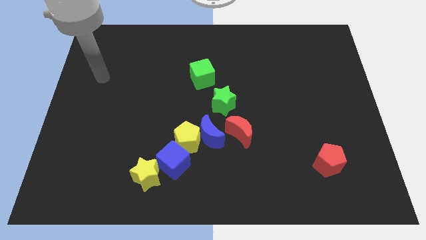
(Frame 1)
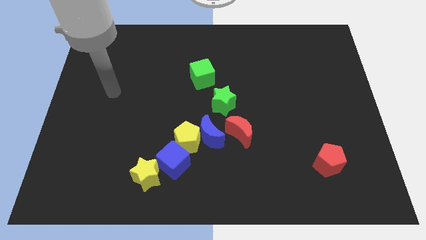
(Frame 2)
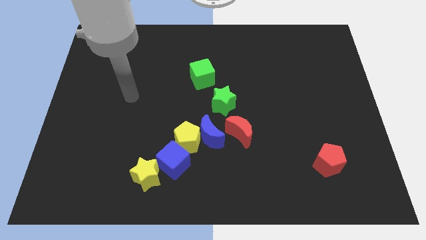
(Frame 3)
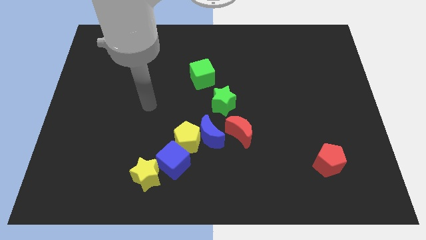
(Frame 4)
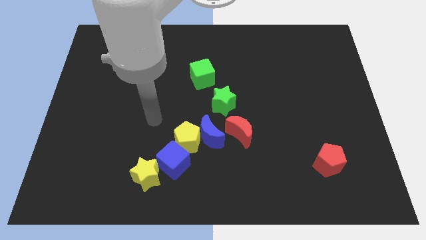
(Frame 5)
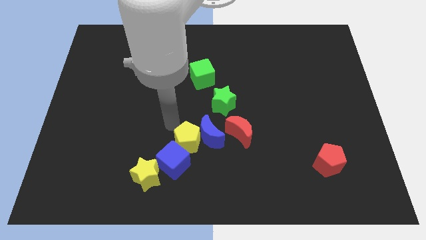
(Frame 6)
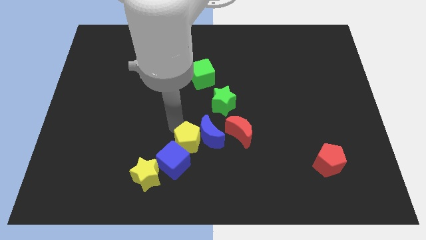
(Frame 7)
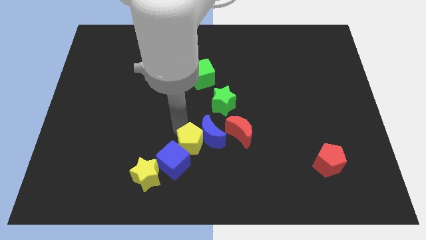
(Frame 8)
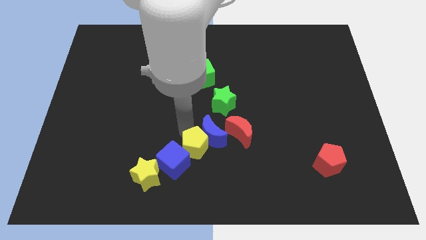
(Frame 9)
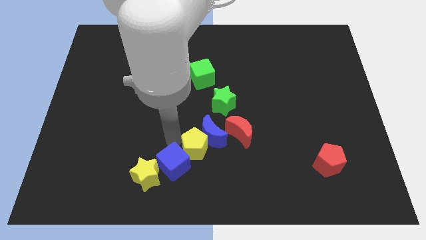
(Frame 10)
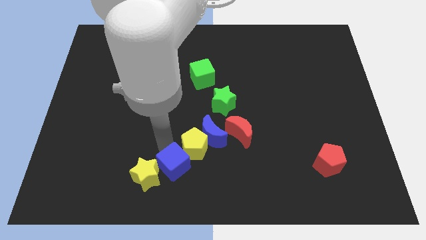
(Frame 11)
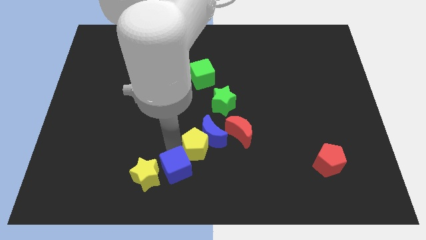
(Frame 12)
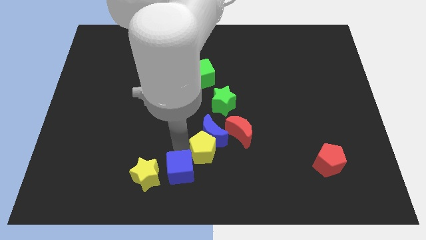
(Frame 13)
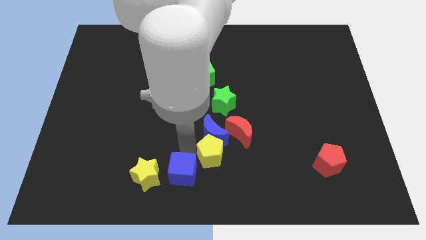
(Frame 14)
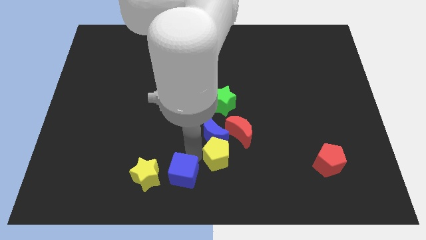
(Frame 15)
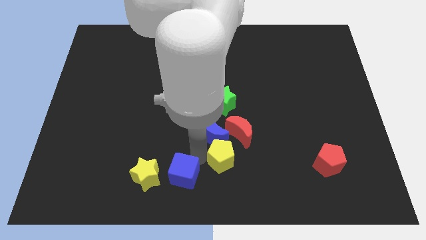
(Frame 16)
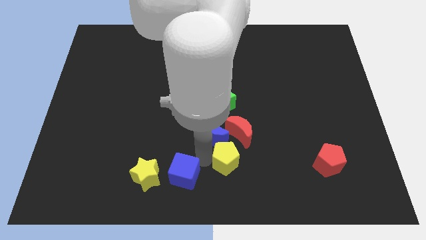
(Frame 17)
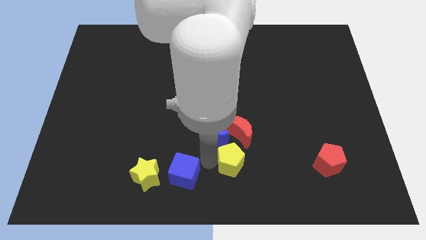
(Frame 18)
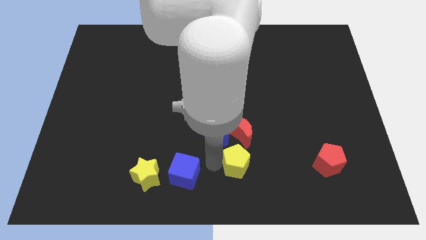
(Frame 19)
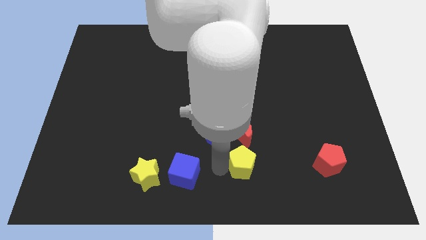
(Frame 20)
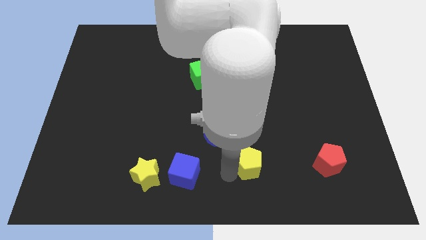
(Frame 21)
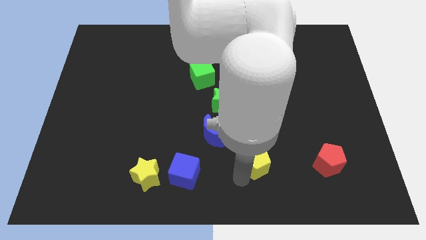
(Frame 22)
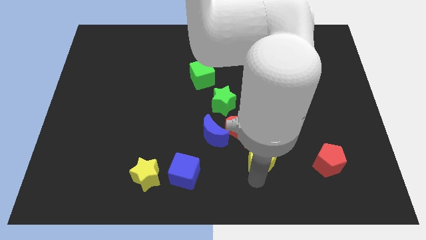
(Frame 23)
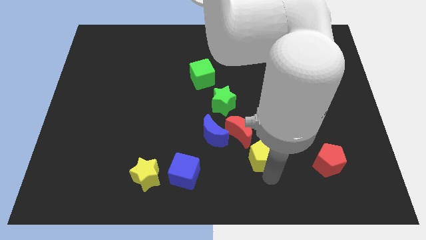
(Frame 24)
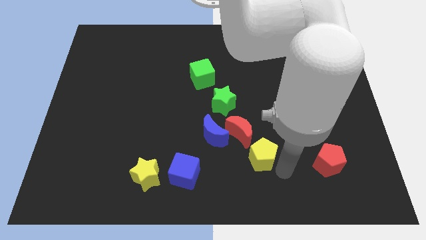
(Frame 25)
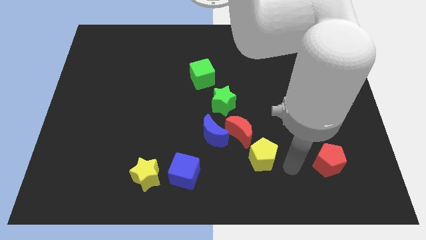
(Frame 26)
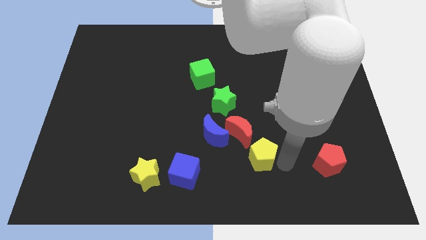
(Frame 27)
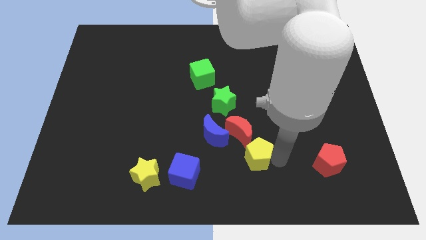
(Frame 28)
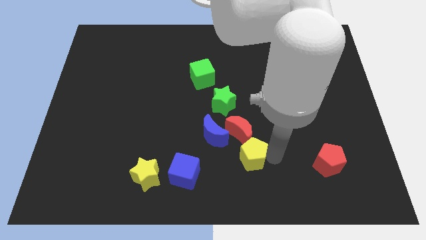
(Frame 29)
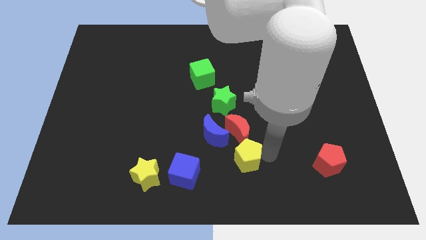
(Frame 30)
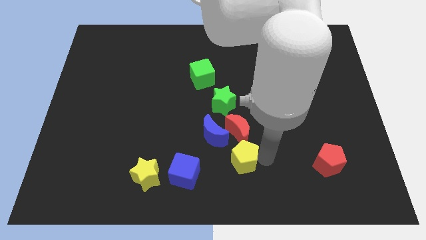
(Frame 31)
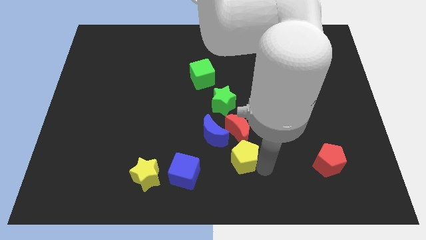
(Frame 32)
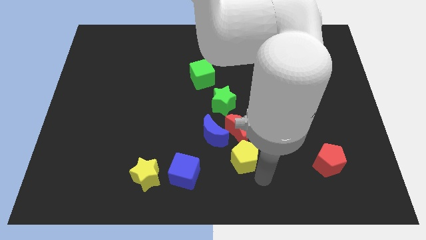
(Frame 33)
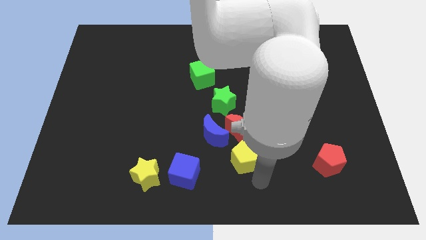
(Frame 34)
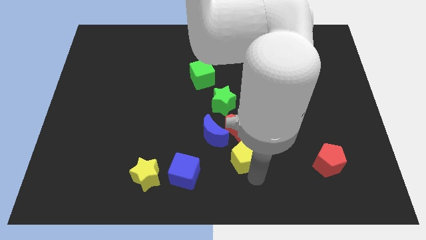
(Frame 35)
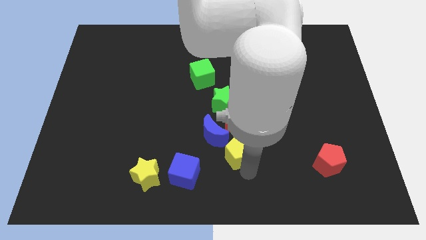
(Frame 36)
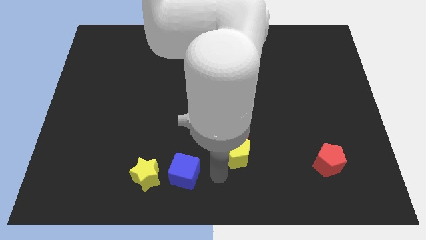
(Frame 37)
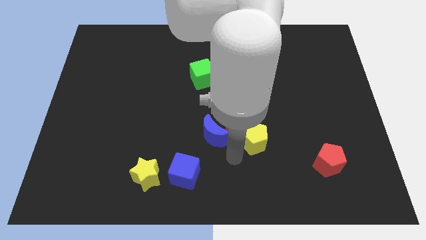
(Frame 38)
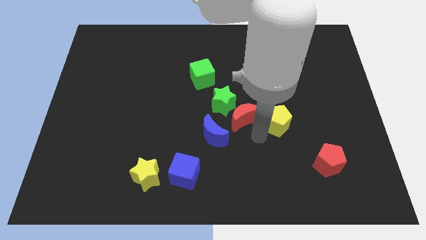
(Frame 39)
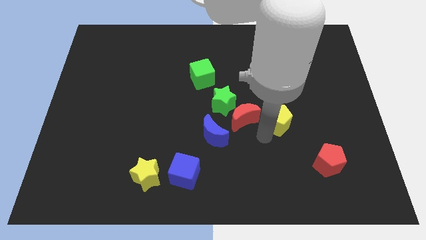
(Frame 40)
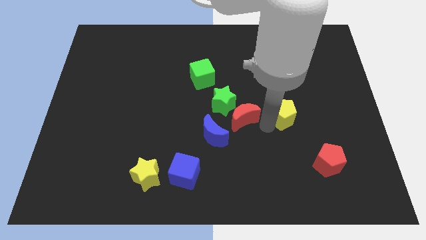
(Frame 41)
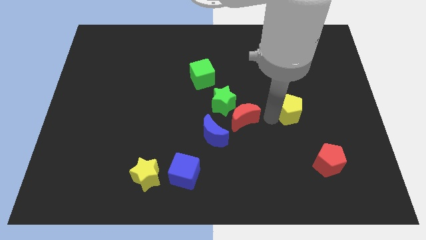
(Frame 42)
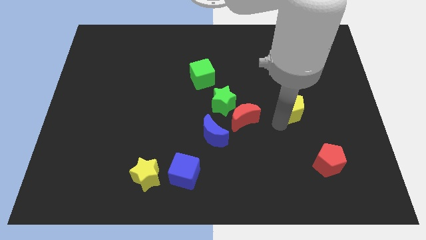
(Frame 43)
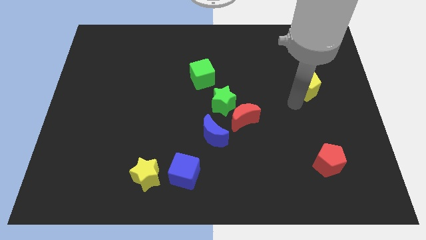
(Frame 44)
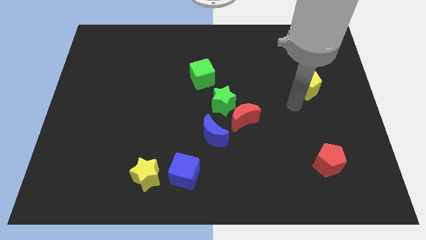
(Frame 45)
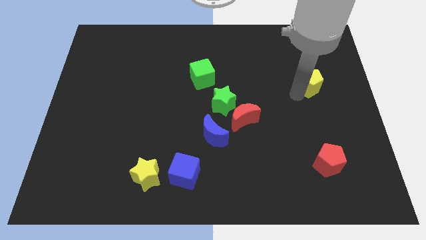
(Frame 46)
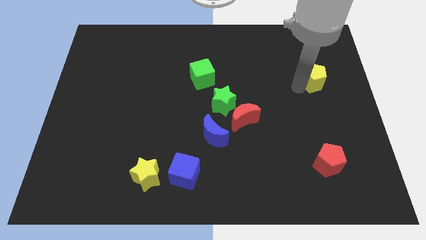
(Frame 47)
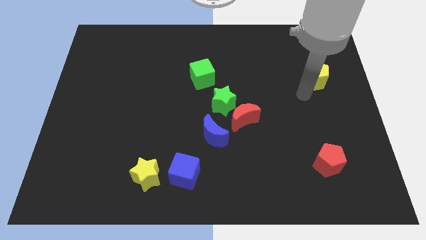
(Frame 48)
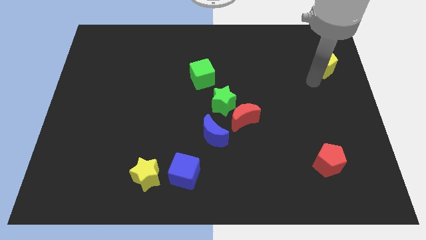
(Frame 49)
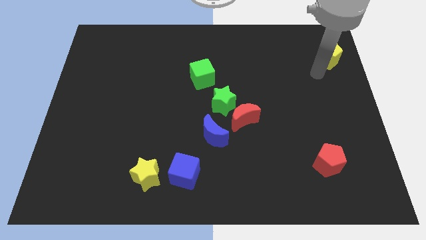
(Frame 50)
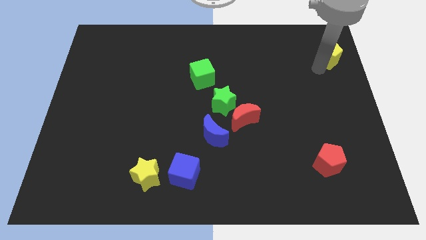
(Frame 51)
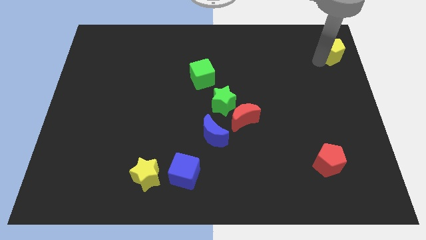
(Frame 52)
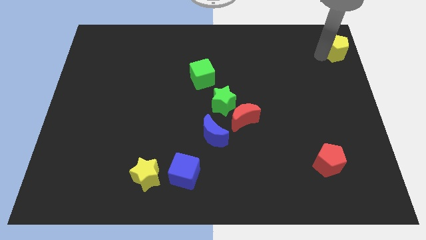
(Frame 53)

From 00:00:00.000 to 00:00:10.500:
slide the yellow pentagon to the top right of the board

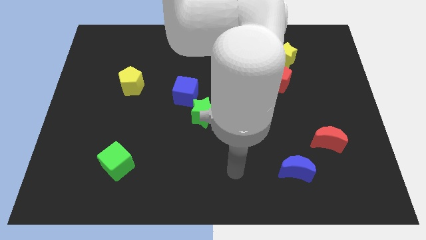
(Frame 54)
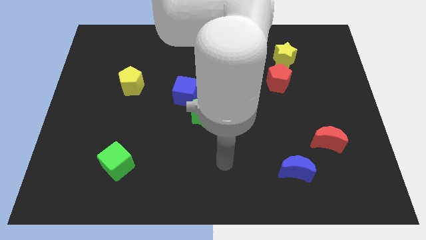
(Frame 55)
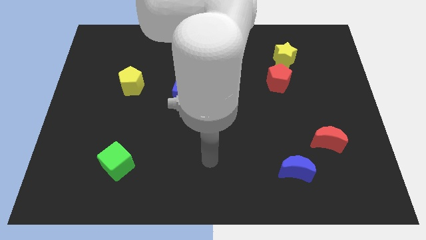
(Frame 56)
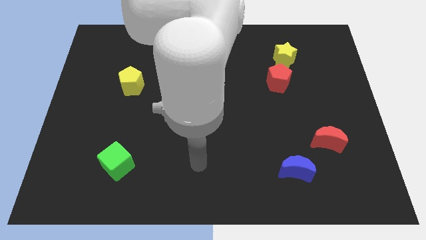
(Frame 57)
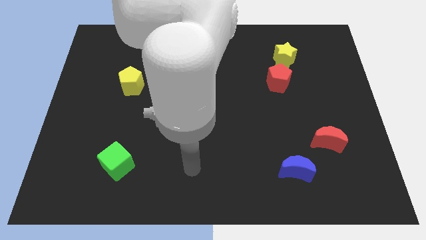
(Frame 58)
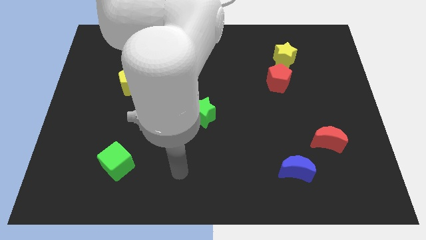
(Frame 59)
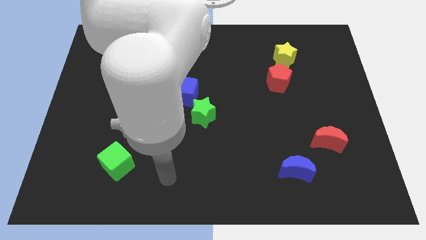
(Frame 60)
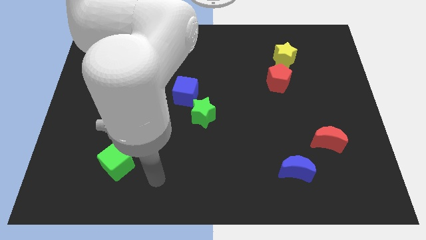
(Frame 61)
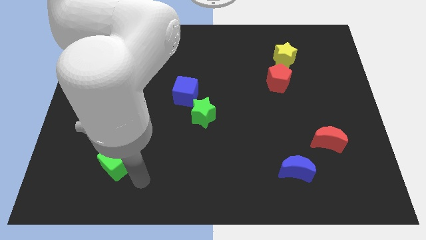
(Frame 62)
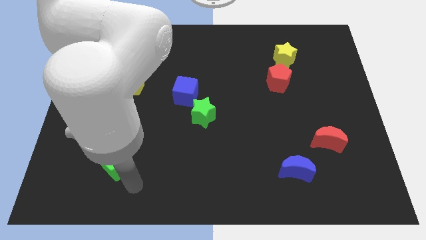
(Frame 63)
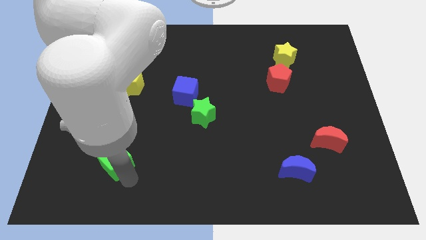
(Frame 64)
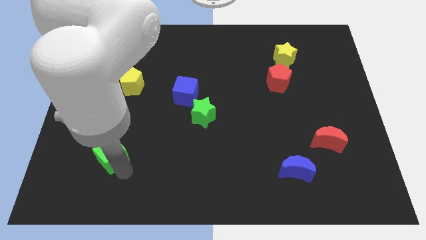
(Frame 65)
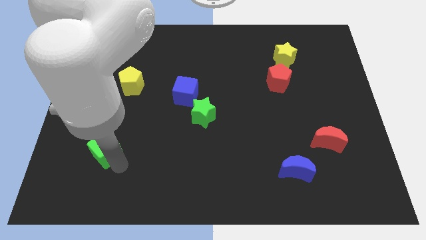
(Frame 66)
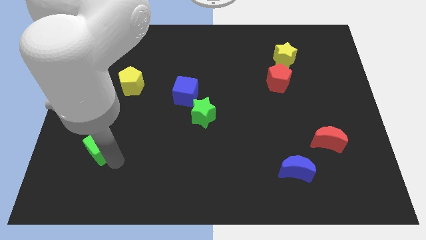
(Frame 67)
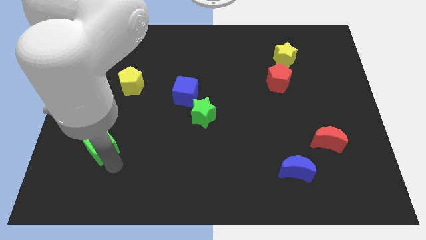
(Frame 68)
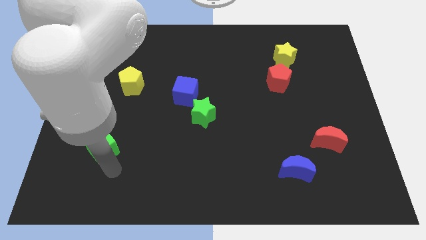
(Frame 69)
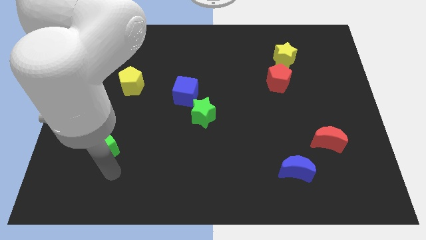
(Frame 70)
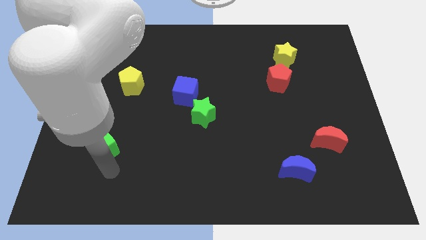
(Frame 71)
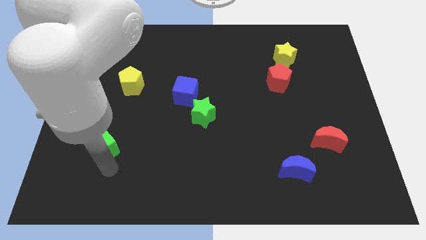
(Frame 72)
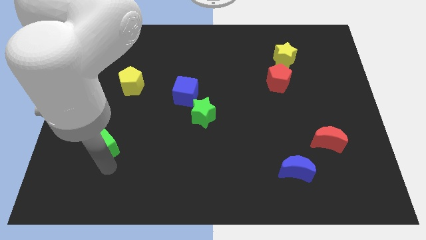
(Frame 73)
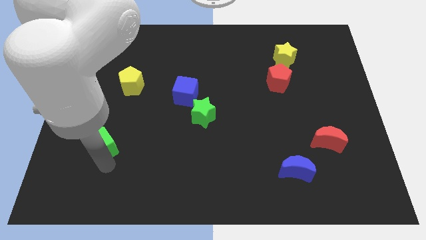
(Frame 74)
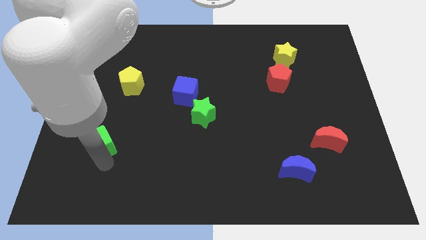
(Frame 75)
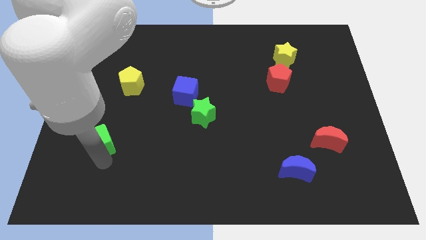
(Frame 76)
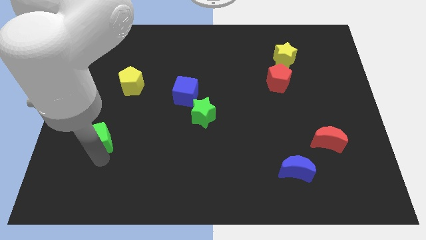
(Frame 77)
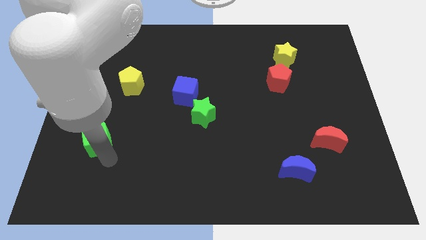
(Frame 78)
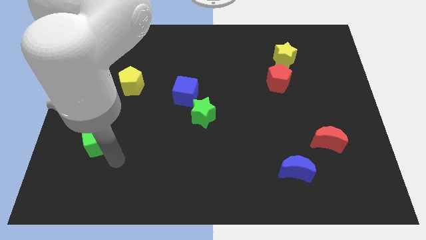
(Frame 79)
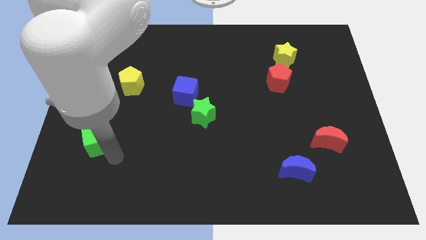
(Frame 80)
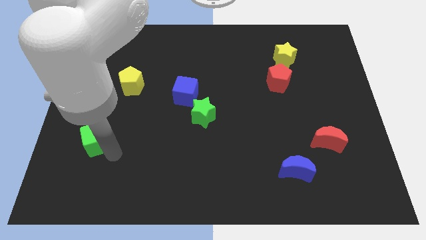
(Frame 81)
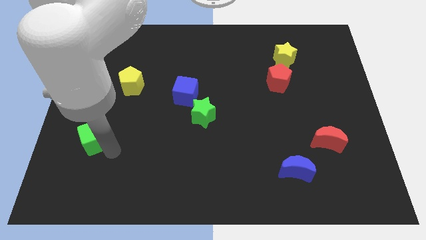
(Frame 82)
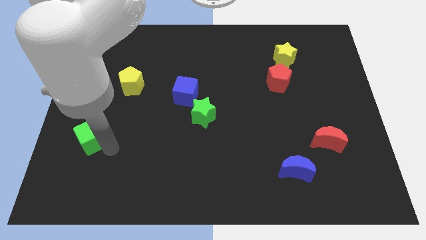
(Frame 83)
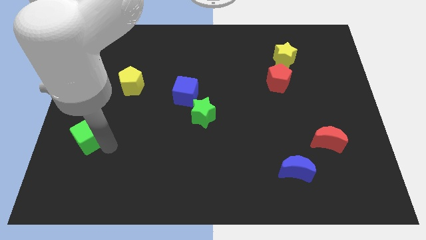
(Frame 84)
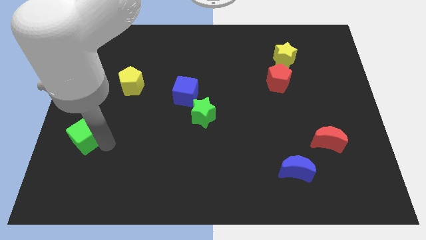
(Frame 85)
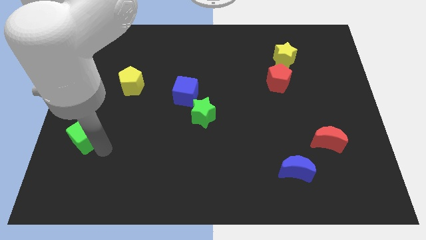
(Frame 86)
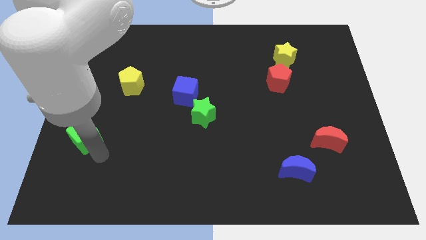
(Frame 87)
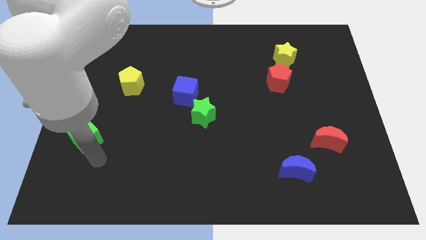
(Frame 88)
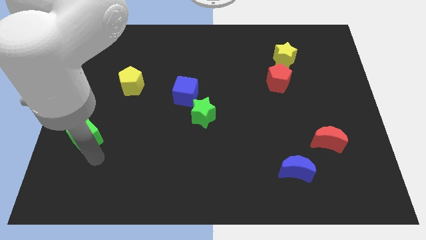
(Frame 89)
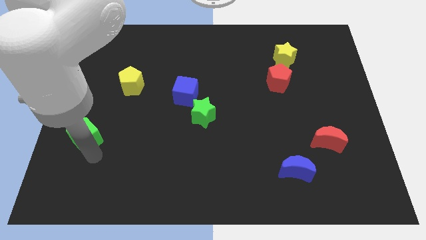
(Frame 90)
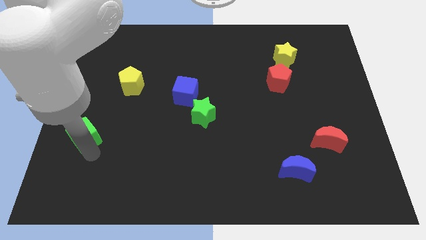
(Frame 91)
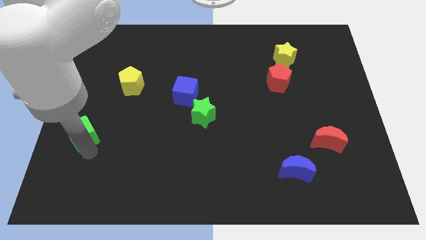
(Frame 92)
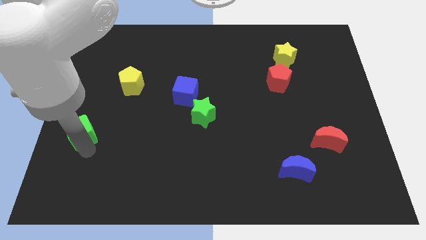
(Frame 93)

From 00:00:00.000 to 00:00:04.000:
push the green cube to the center left
